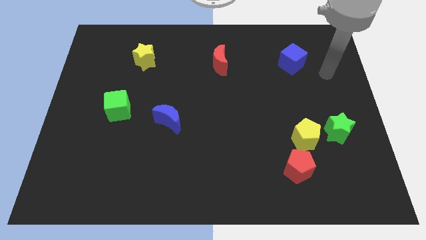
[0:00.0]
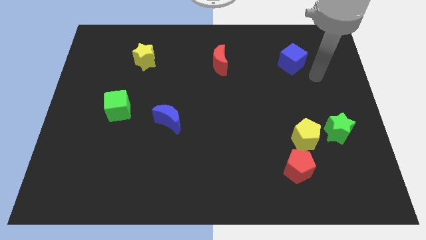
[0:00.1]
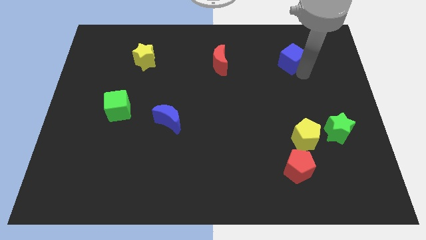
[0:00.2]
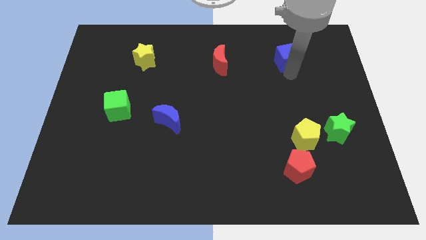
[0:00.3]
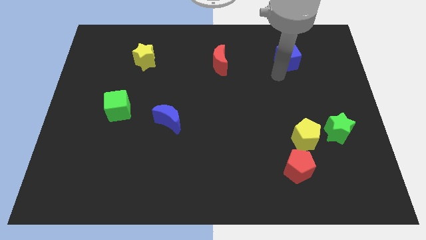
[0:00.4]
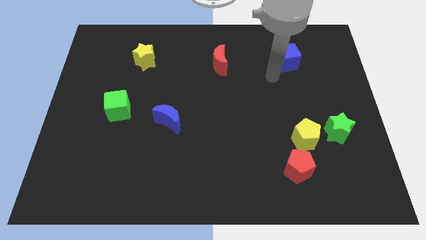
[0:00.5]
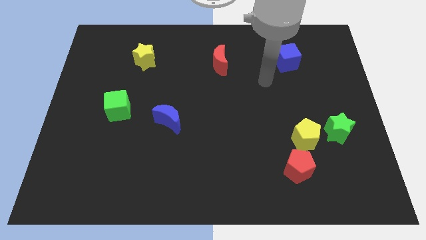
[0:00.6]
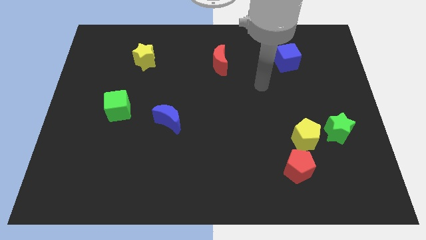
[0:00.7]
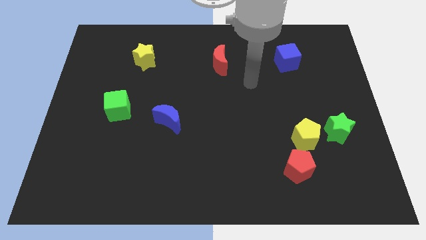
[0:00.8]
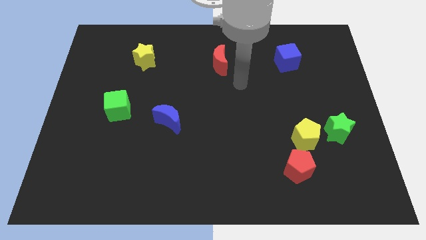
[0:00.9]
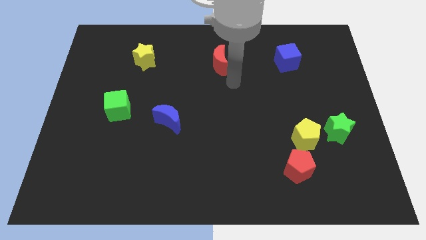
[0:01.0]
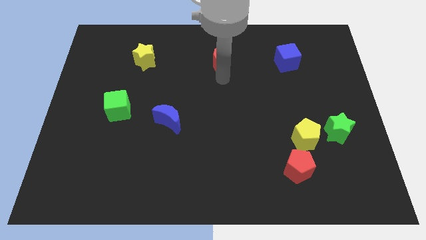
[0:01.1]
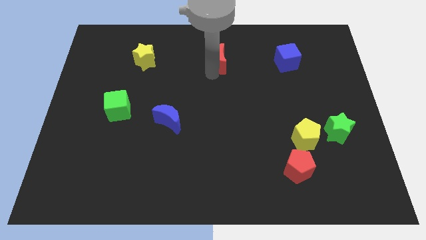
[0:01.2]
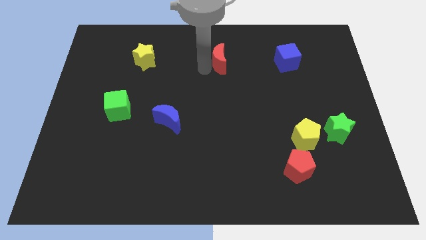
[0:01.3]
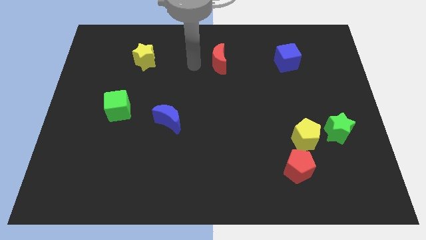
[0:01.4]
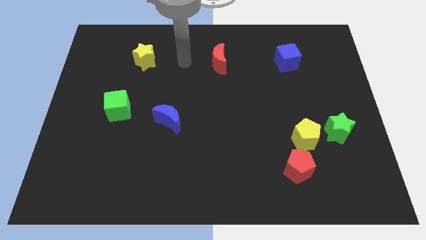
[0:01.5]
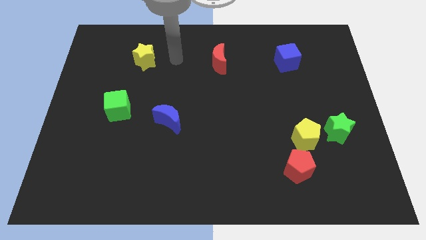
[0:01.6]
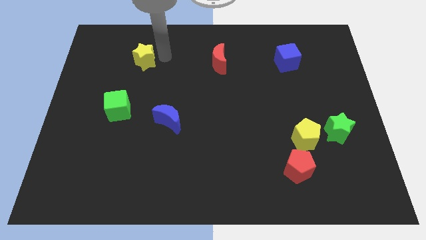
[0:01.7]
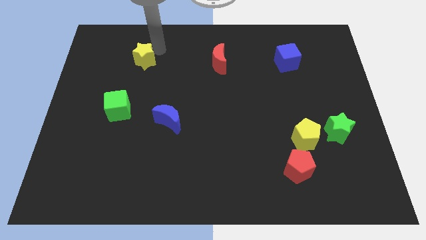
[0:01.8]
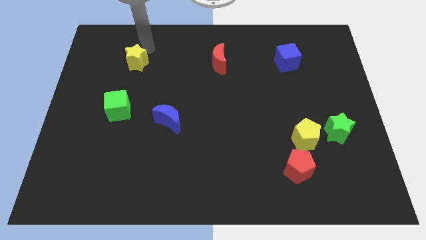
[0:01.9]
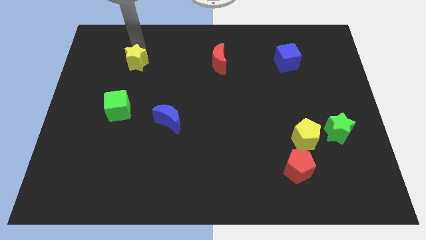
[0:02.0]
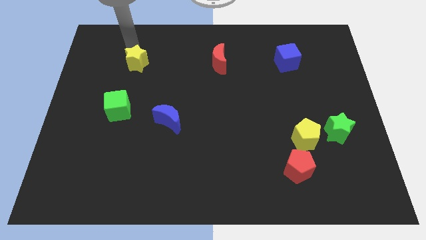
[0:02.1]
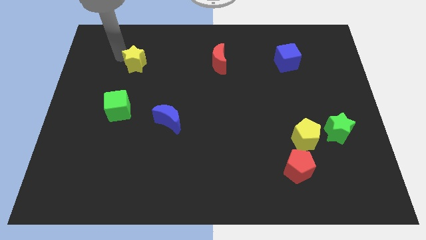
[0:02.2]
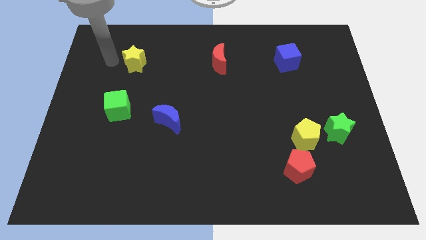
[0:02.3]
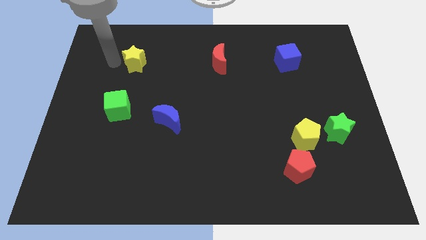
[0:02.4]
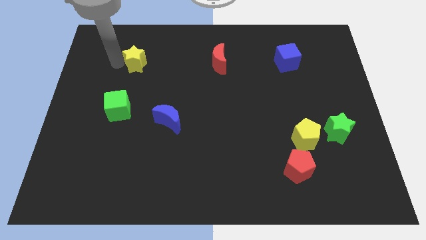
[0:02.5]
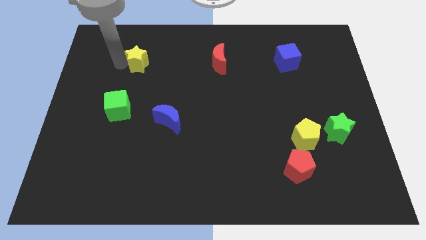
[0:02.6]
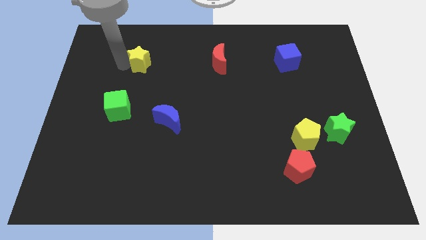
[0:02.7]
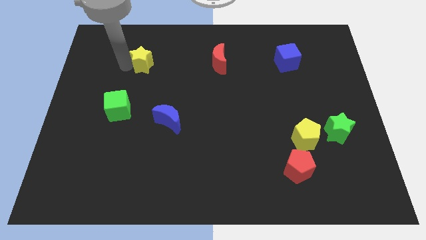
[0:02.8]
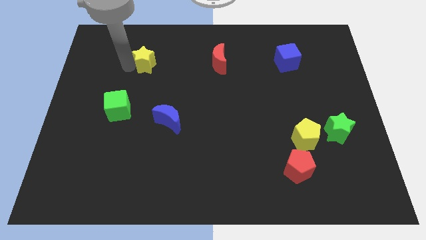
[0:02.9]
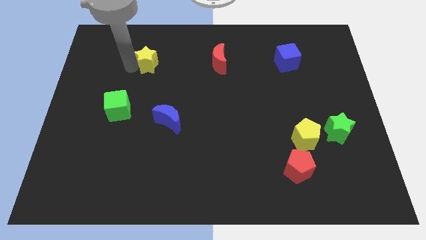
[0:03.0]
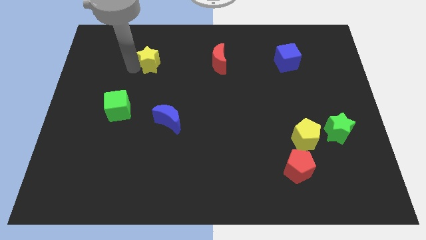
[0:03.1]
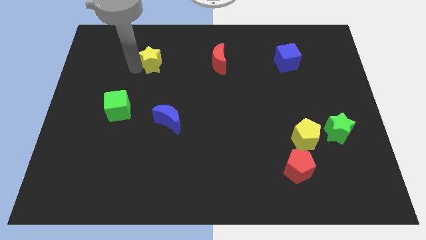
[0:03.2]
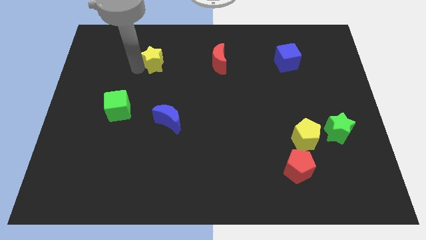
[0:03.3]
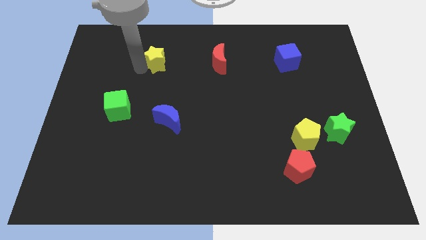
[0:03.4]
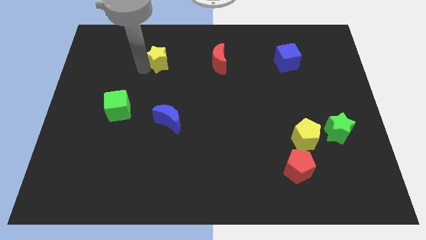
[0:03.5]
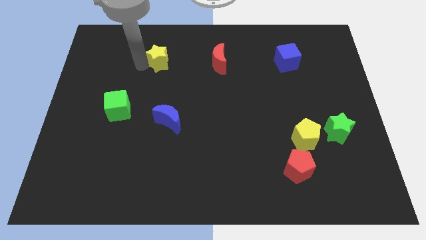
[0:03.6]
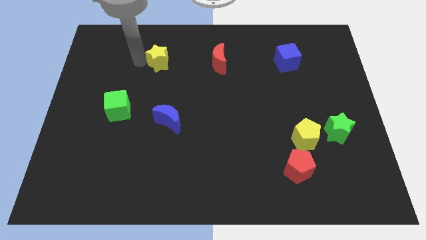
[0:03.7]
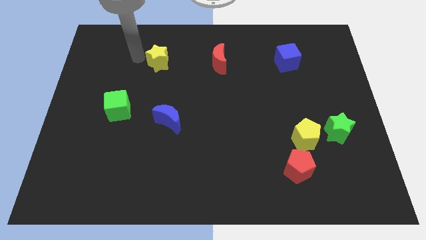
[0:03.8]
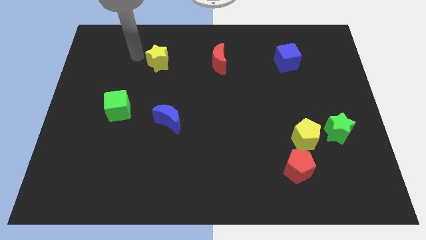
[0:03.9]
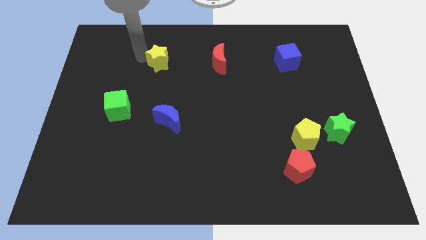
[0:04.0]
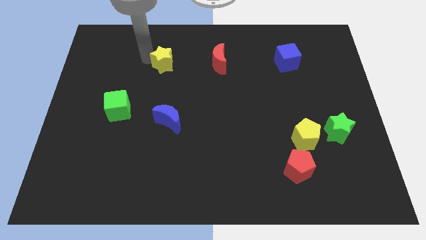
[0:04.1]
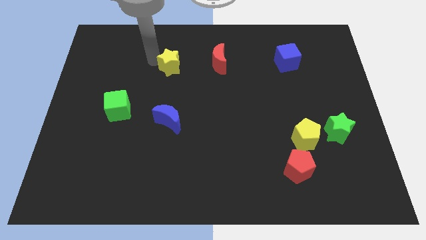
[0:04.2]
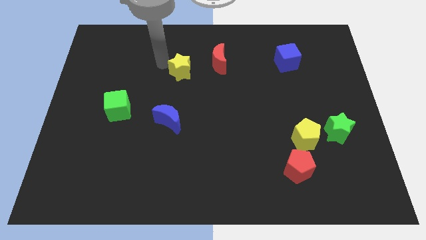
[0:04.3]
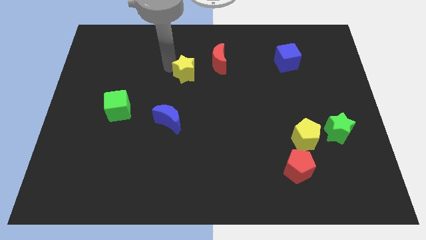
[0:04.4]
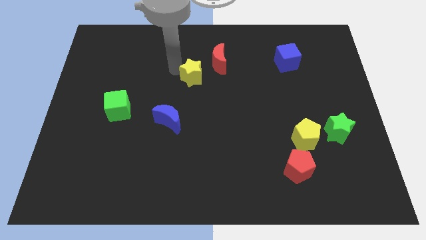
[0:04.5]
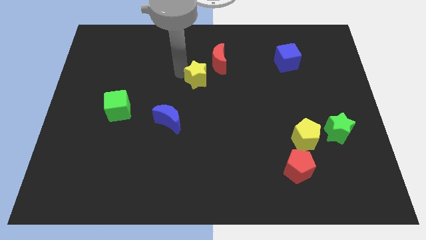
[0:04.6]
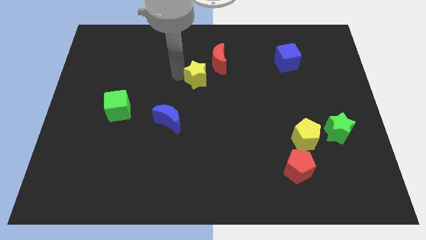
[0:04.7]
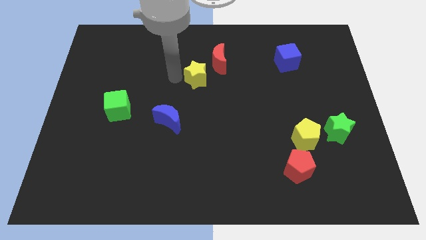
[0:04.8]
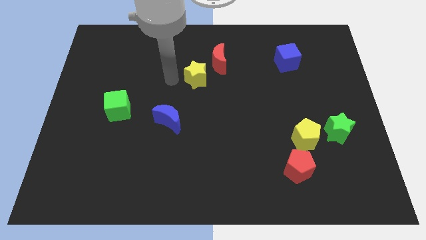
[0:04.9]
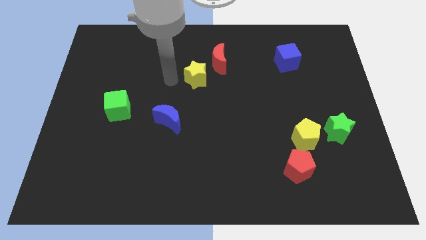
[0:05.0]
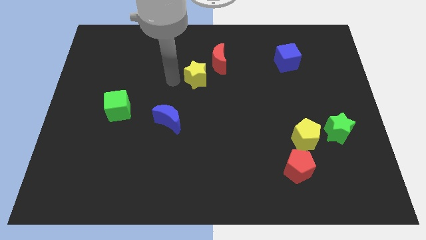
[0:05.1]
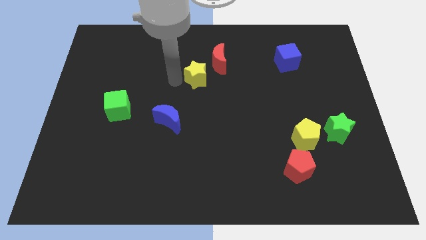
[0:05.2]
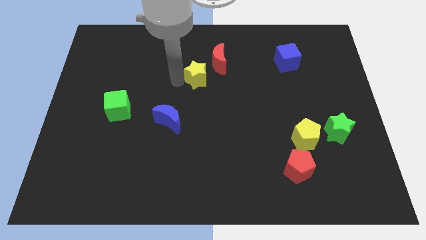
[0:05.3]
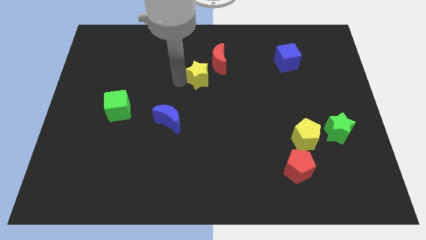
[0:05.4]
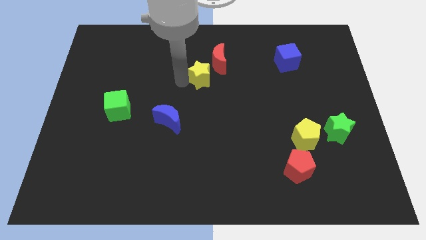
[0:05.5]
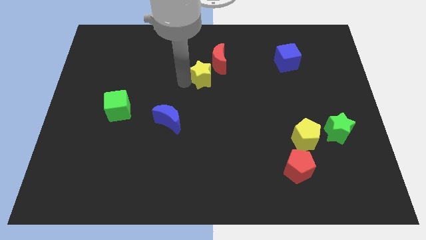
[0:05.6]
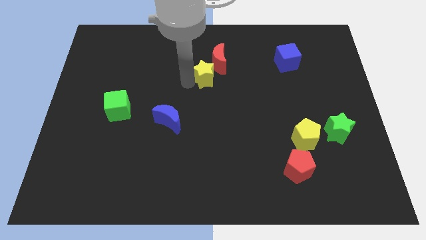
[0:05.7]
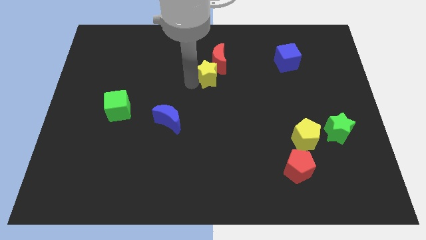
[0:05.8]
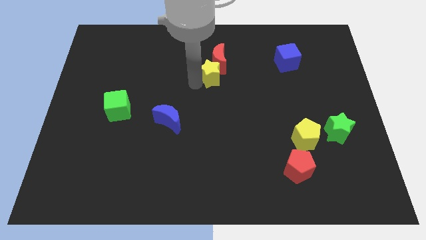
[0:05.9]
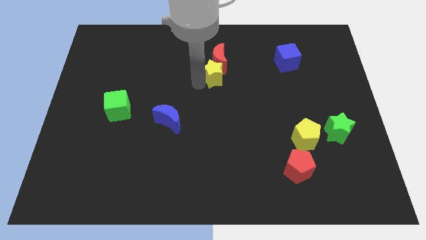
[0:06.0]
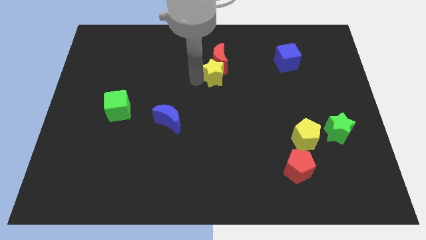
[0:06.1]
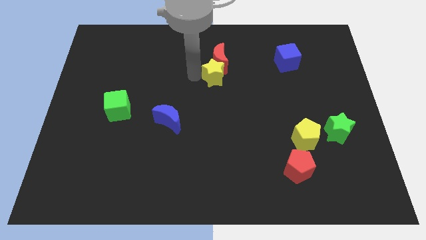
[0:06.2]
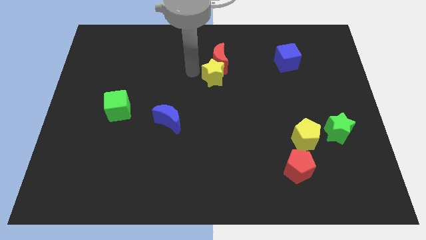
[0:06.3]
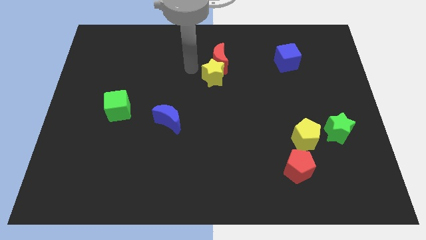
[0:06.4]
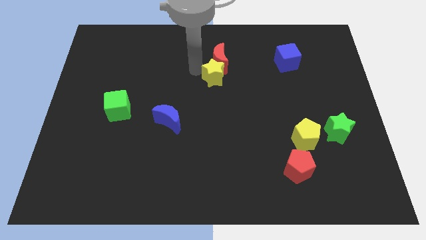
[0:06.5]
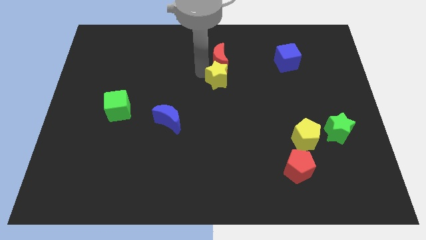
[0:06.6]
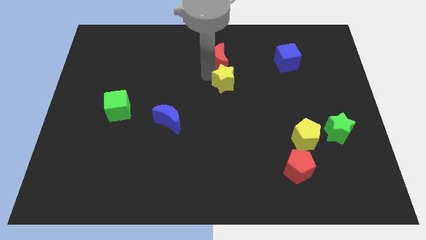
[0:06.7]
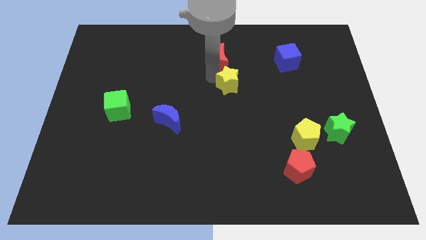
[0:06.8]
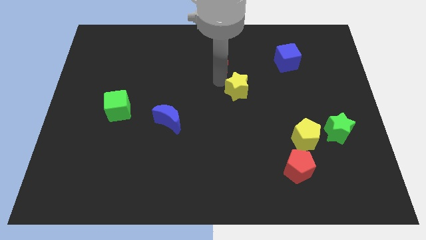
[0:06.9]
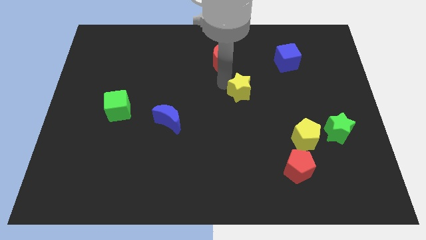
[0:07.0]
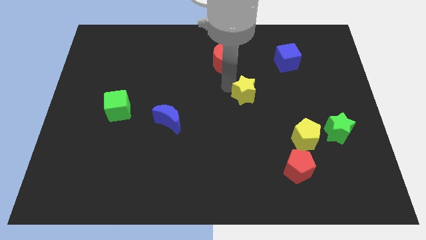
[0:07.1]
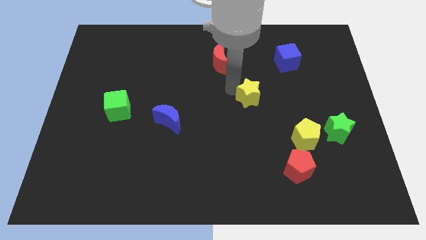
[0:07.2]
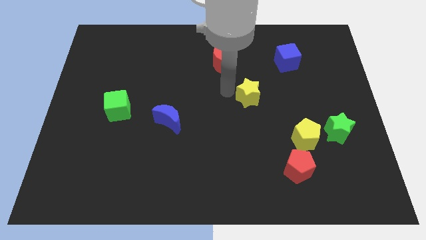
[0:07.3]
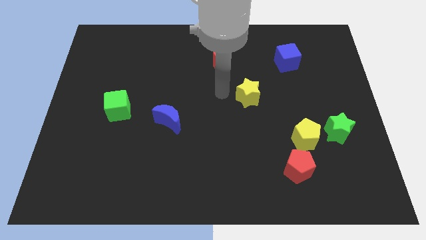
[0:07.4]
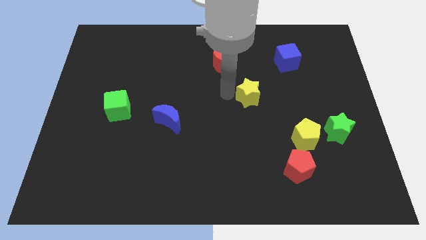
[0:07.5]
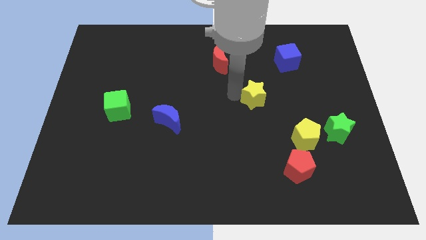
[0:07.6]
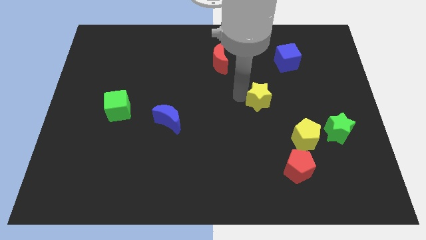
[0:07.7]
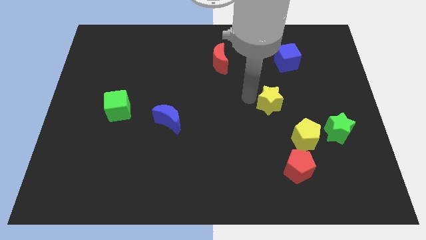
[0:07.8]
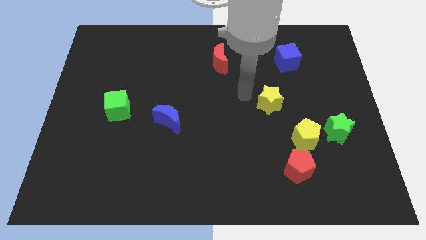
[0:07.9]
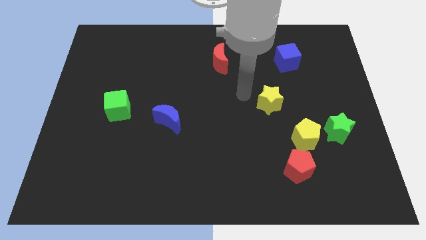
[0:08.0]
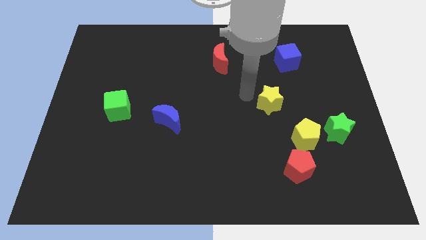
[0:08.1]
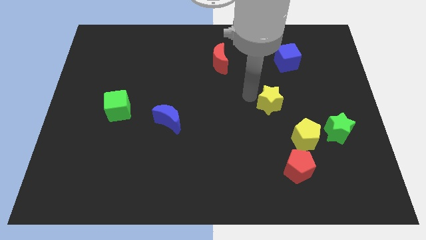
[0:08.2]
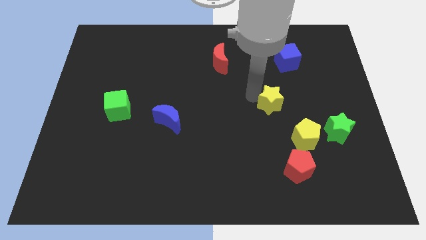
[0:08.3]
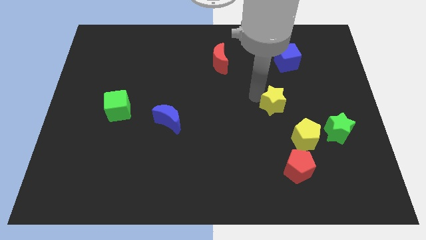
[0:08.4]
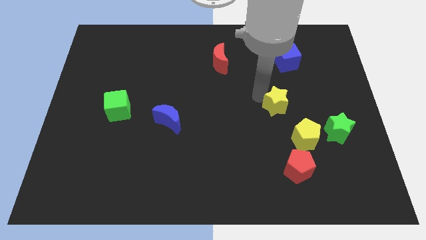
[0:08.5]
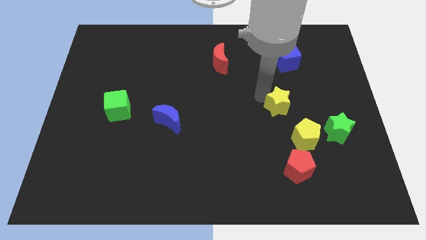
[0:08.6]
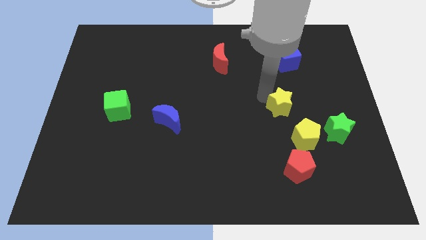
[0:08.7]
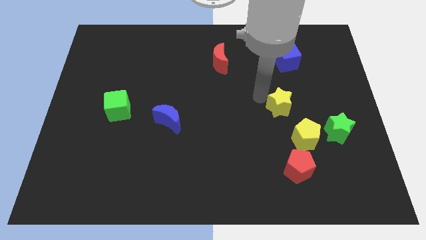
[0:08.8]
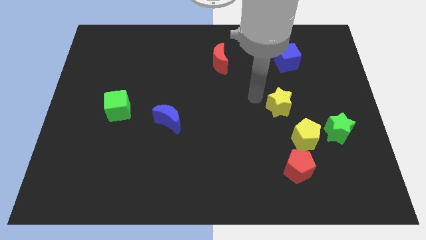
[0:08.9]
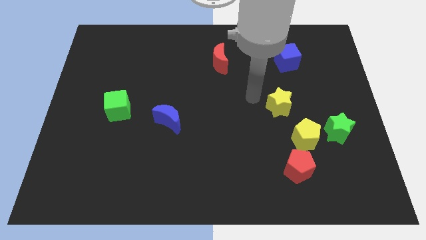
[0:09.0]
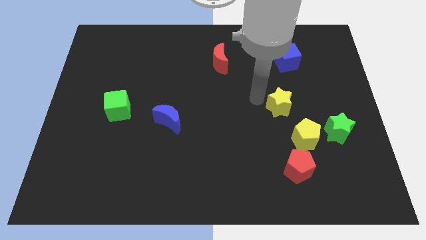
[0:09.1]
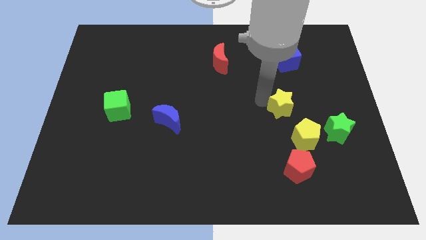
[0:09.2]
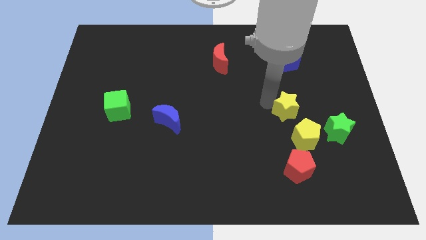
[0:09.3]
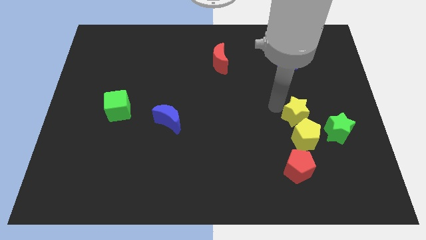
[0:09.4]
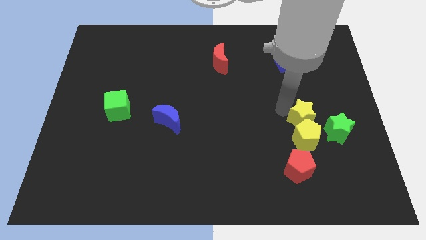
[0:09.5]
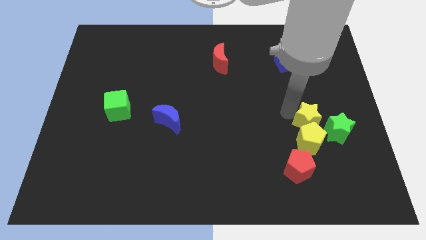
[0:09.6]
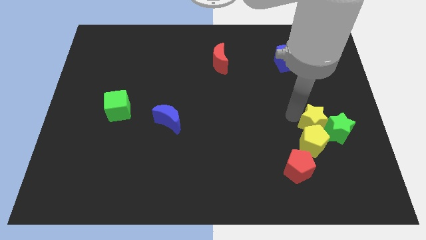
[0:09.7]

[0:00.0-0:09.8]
push the yellow star close to the green star
